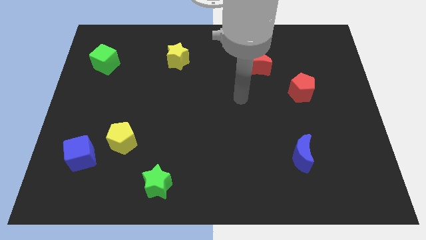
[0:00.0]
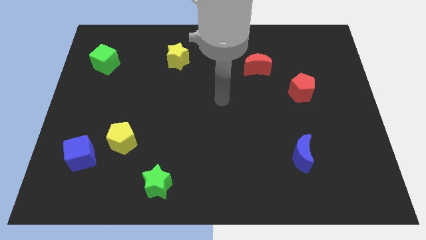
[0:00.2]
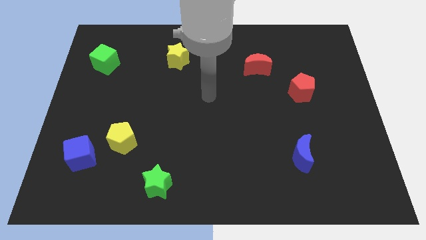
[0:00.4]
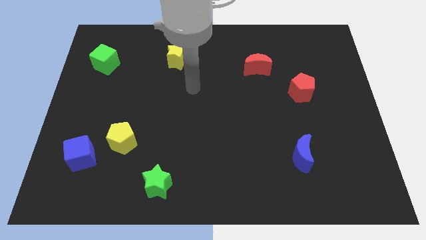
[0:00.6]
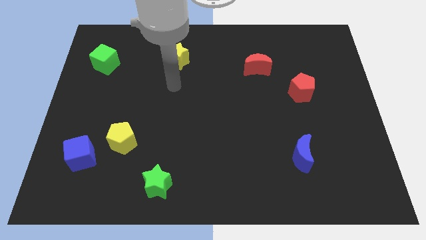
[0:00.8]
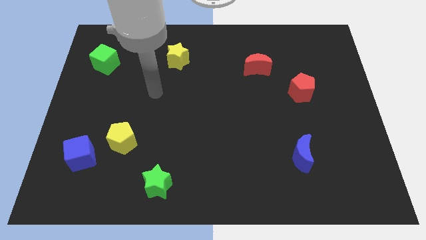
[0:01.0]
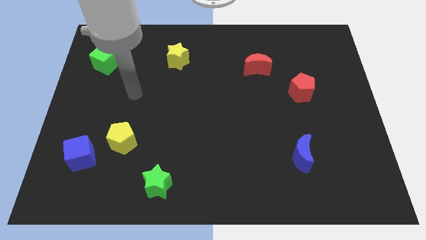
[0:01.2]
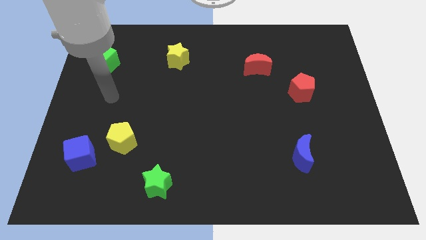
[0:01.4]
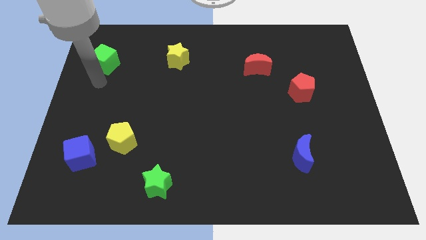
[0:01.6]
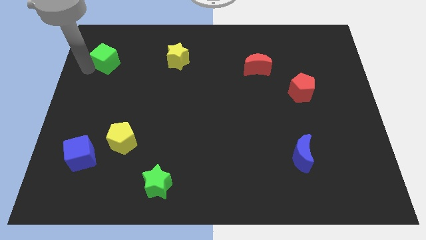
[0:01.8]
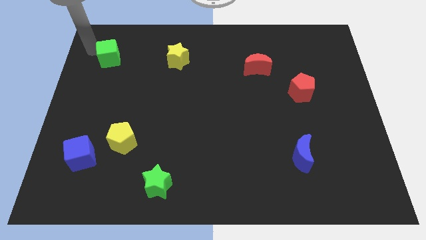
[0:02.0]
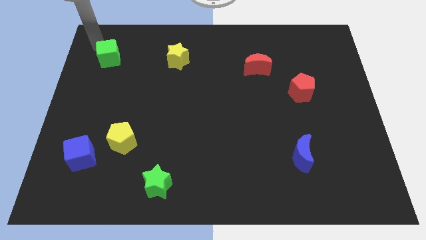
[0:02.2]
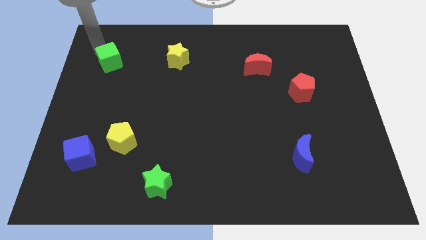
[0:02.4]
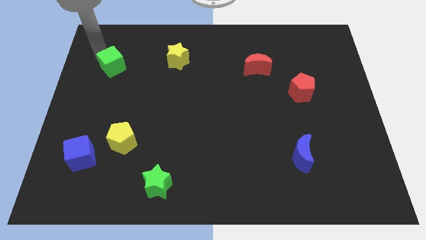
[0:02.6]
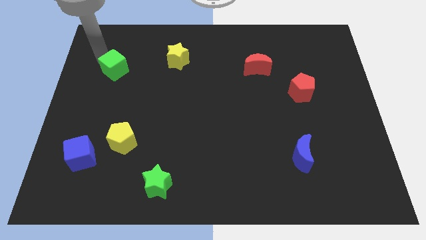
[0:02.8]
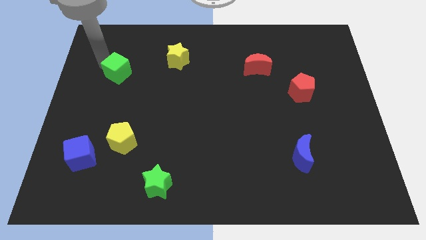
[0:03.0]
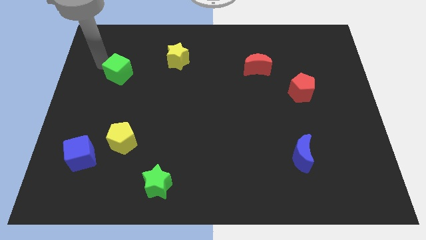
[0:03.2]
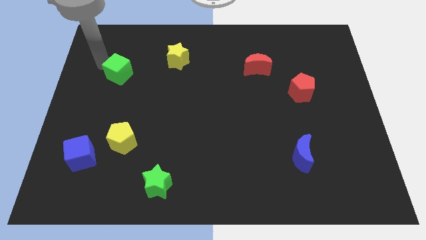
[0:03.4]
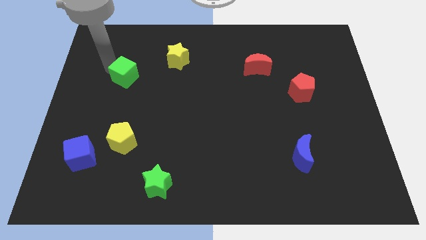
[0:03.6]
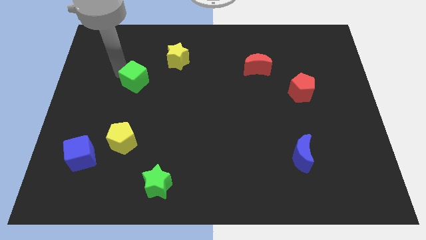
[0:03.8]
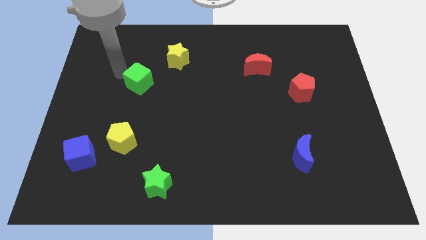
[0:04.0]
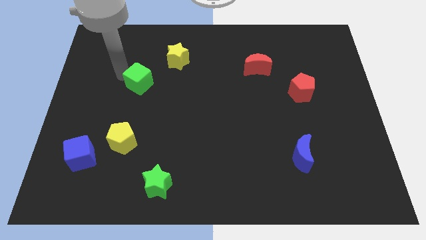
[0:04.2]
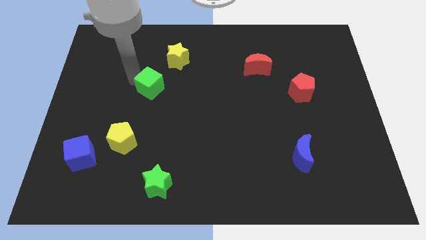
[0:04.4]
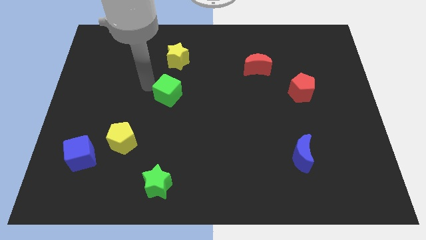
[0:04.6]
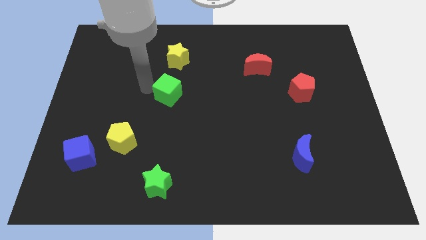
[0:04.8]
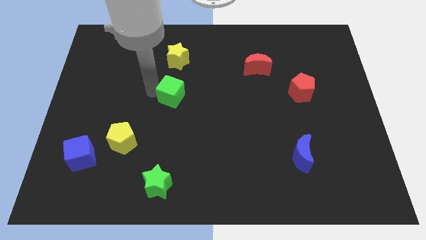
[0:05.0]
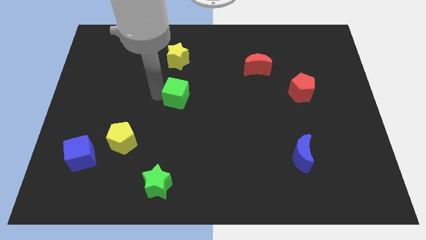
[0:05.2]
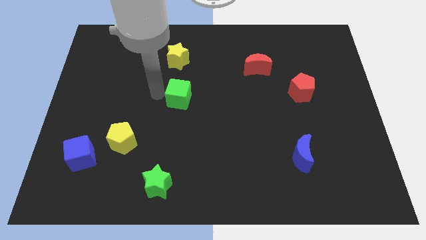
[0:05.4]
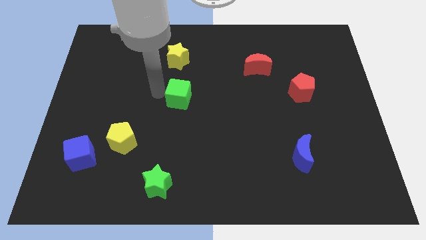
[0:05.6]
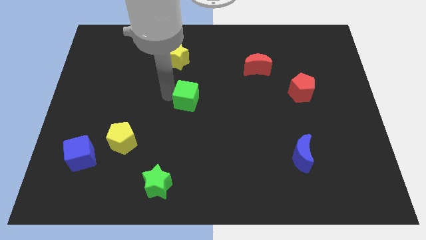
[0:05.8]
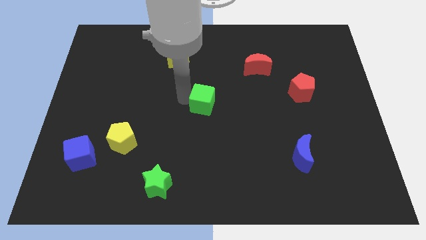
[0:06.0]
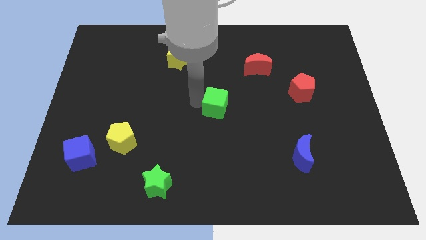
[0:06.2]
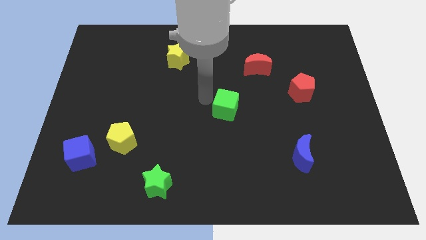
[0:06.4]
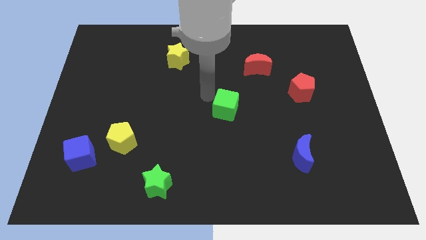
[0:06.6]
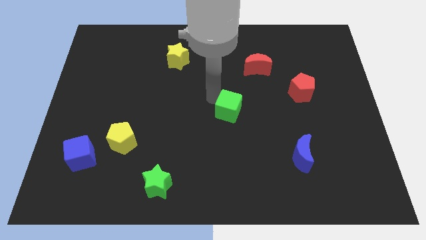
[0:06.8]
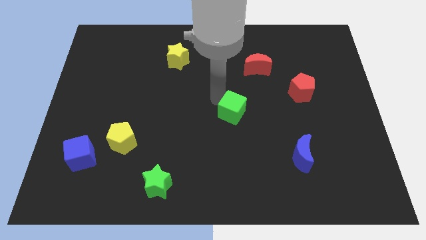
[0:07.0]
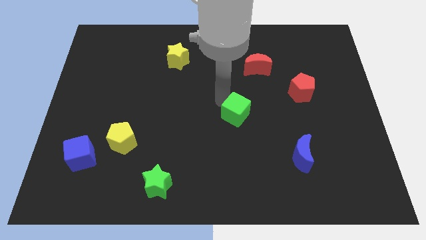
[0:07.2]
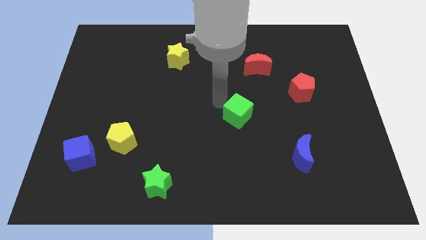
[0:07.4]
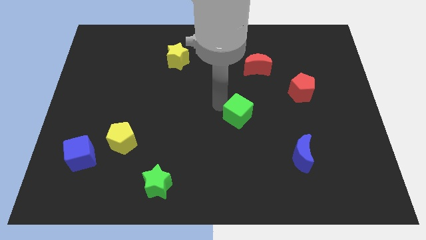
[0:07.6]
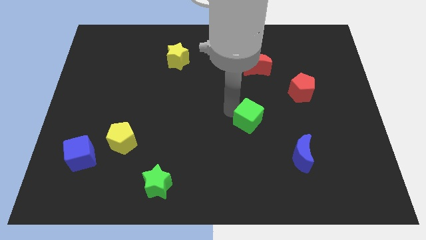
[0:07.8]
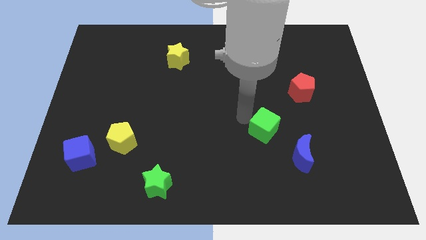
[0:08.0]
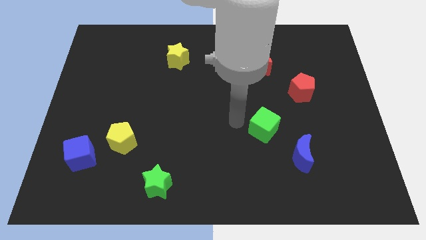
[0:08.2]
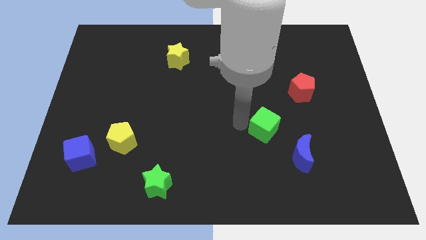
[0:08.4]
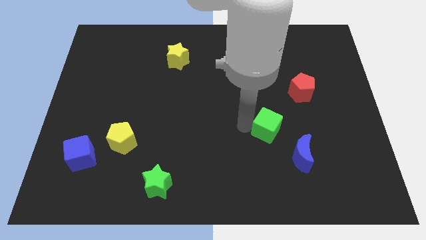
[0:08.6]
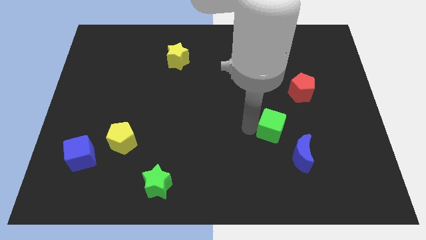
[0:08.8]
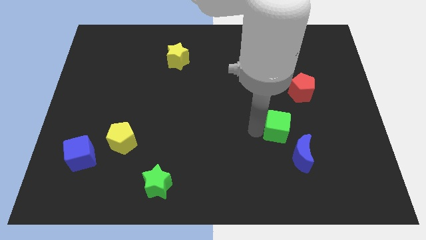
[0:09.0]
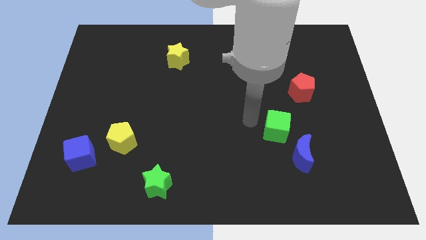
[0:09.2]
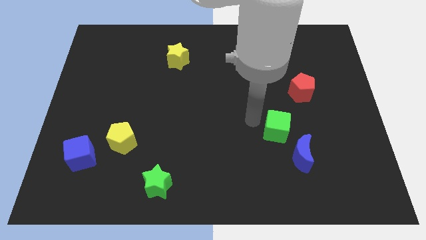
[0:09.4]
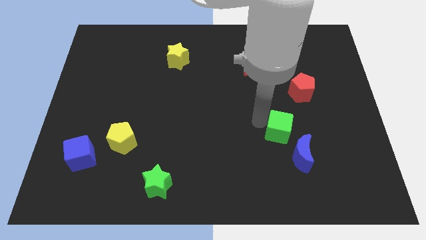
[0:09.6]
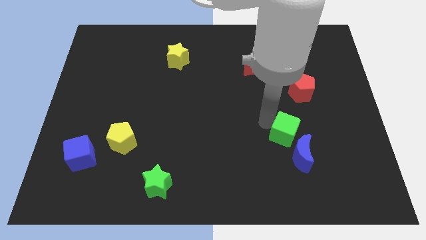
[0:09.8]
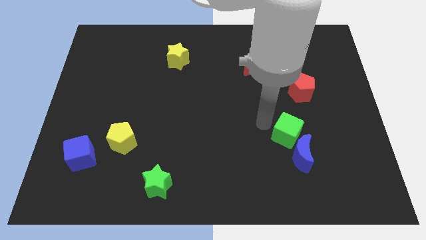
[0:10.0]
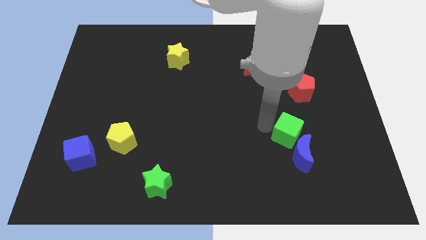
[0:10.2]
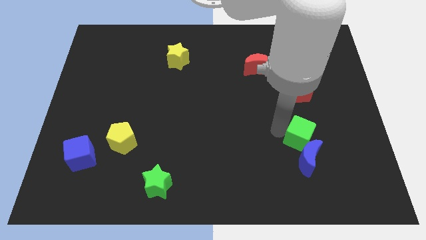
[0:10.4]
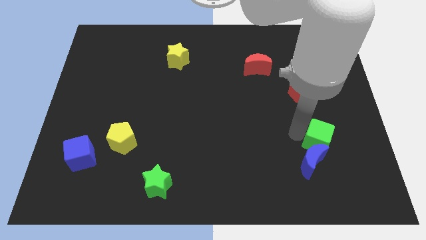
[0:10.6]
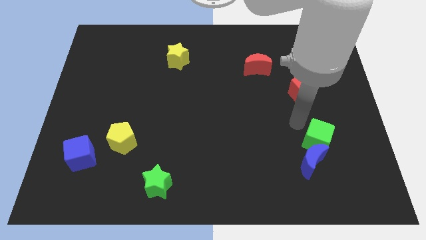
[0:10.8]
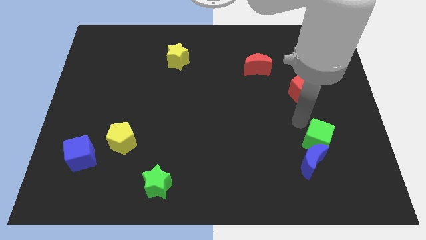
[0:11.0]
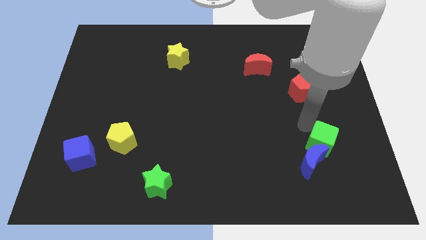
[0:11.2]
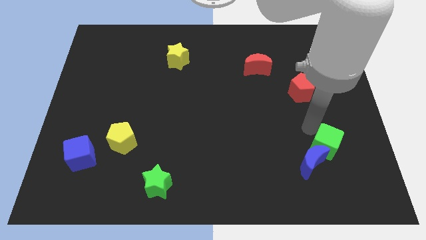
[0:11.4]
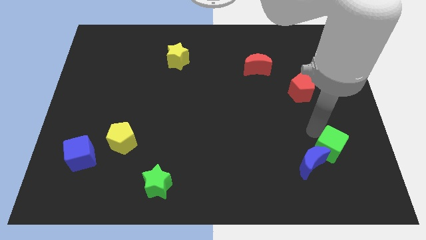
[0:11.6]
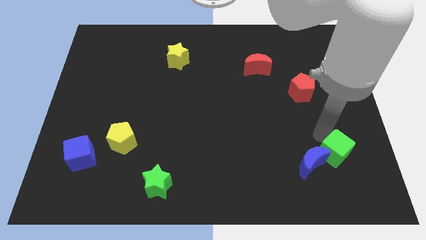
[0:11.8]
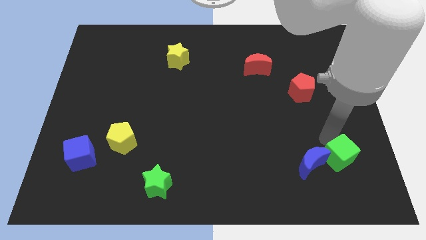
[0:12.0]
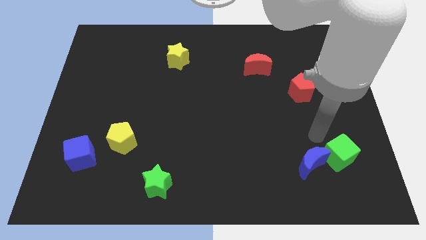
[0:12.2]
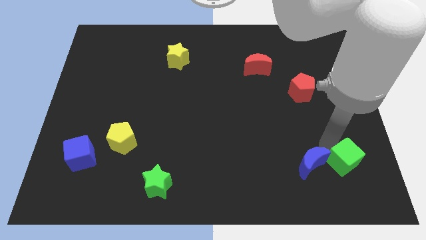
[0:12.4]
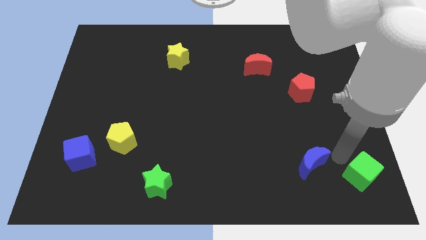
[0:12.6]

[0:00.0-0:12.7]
move the green cube to the bottom right of the board
